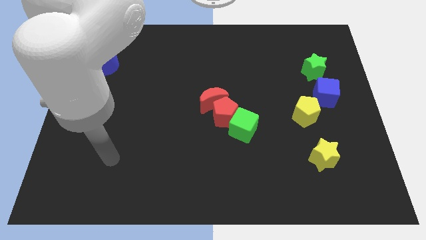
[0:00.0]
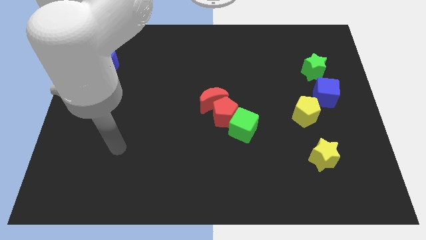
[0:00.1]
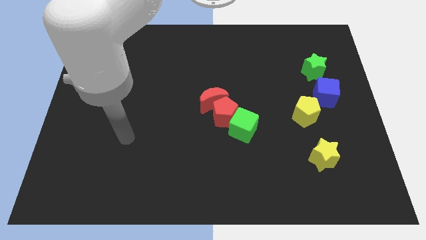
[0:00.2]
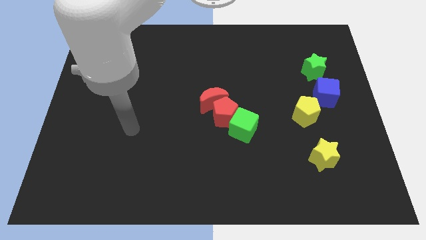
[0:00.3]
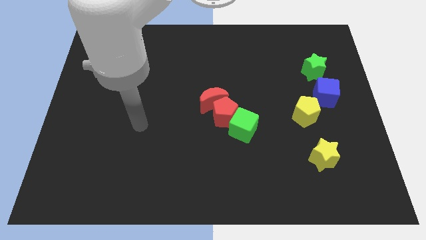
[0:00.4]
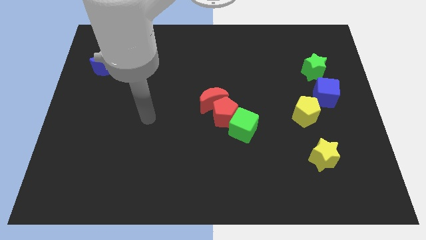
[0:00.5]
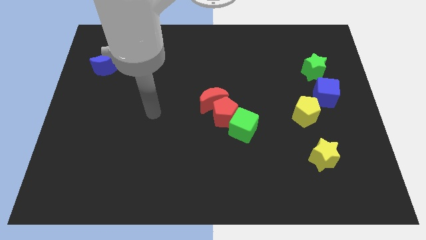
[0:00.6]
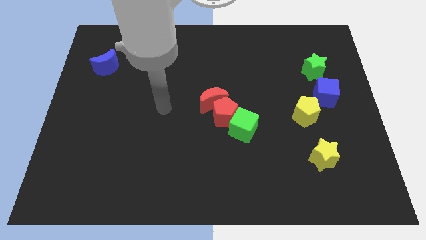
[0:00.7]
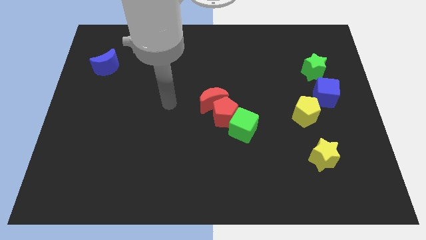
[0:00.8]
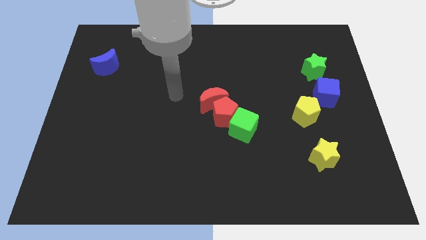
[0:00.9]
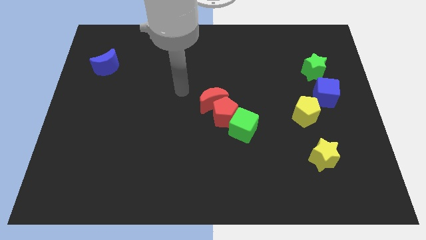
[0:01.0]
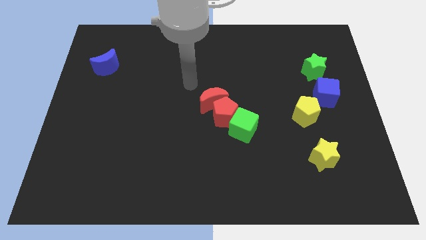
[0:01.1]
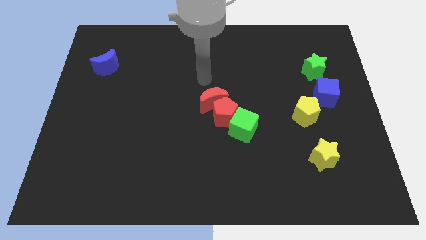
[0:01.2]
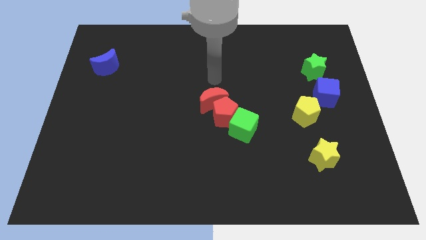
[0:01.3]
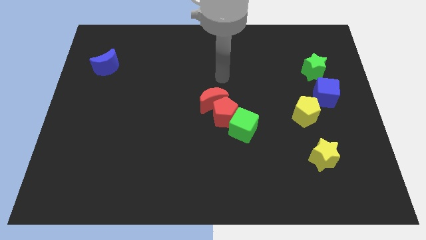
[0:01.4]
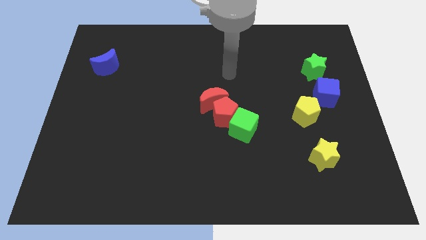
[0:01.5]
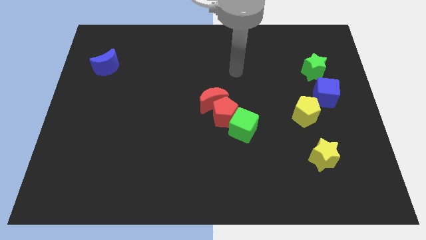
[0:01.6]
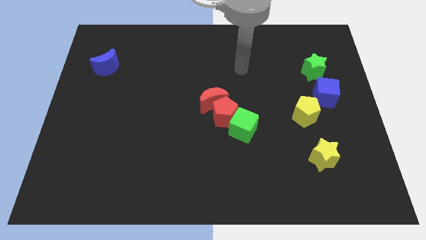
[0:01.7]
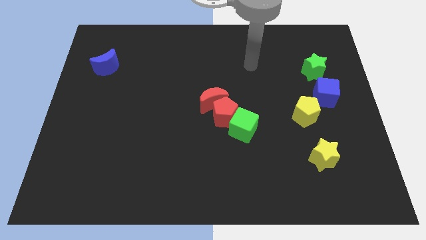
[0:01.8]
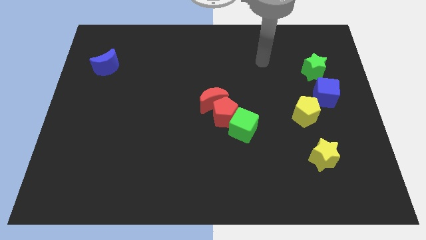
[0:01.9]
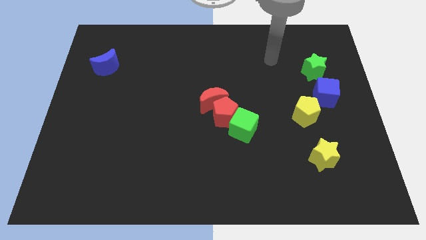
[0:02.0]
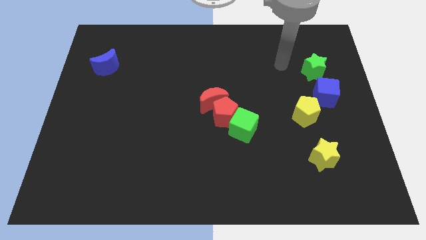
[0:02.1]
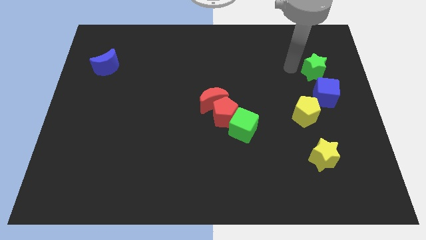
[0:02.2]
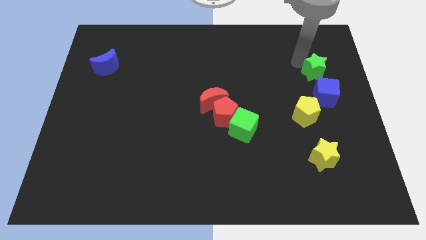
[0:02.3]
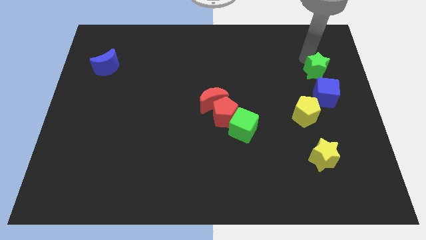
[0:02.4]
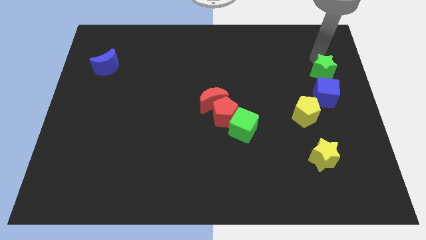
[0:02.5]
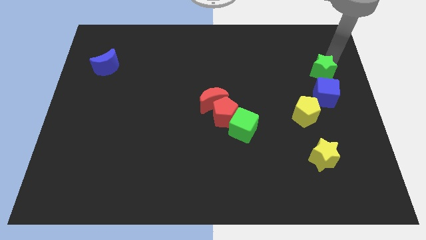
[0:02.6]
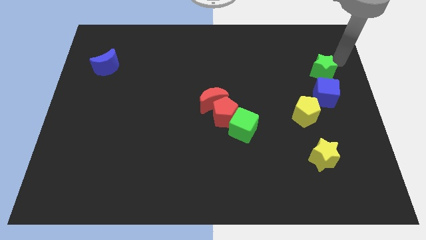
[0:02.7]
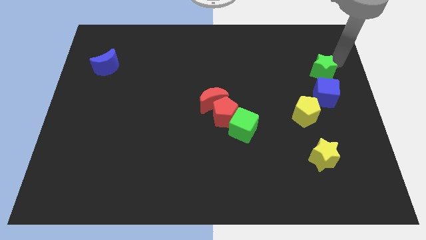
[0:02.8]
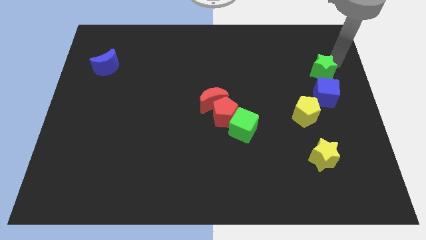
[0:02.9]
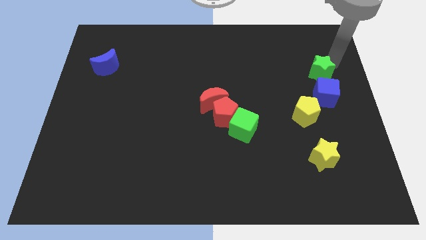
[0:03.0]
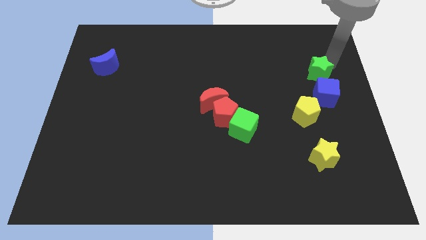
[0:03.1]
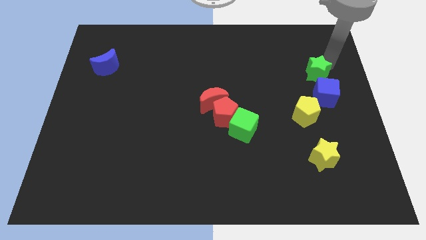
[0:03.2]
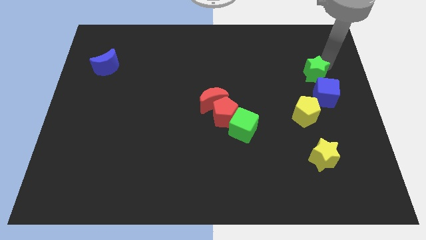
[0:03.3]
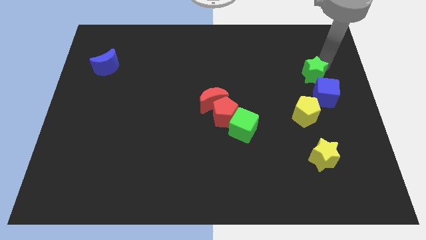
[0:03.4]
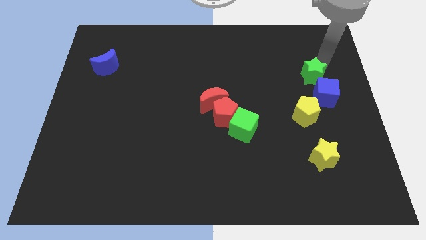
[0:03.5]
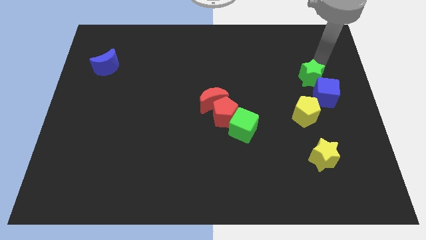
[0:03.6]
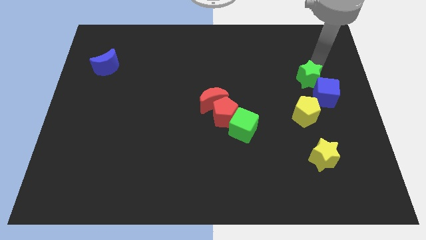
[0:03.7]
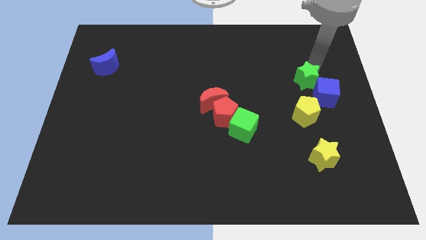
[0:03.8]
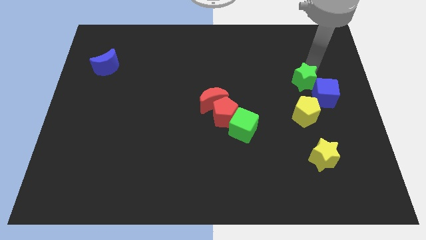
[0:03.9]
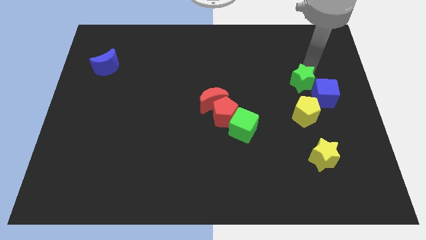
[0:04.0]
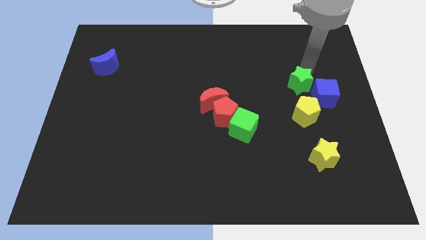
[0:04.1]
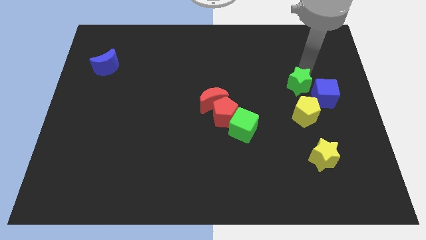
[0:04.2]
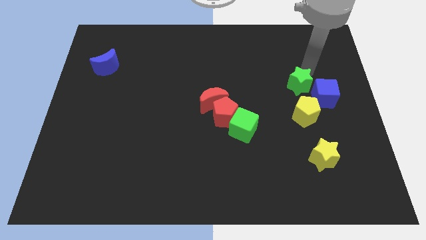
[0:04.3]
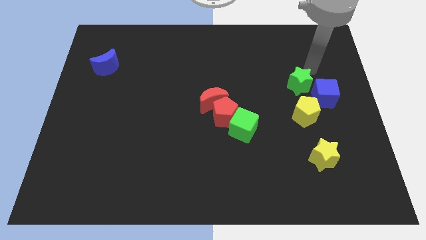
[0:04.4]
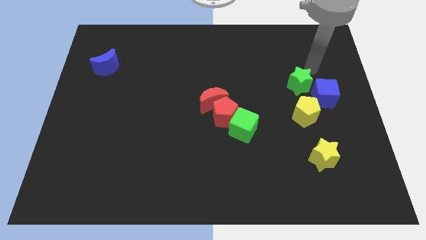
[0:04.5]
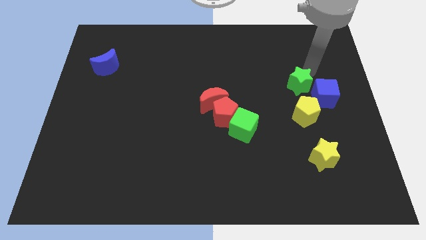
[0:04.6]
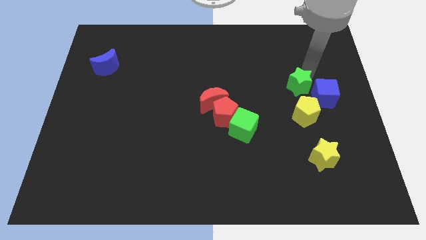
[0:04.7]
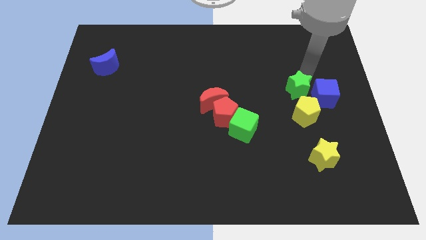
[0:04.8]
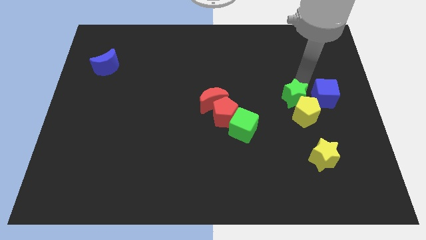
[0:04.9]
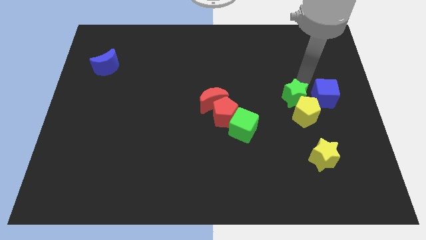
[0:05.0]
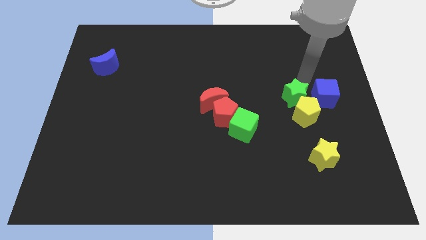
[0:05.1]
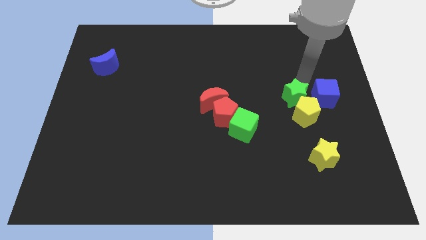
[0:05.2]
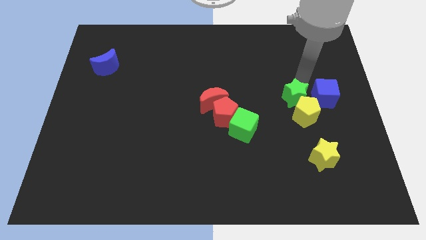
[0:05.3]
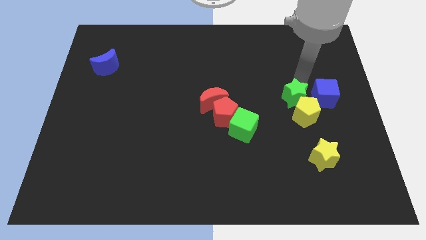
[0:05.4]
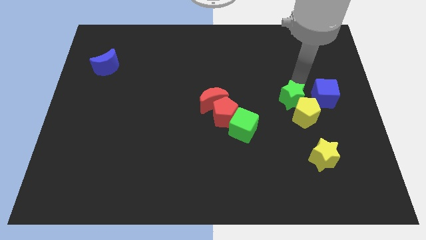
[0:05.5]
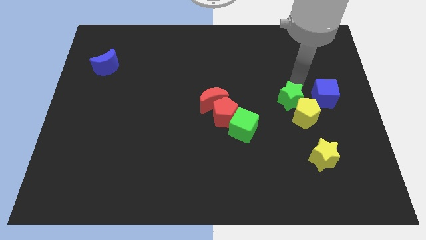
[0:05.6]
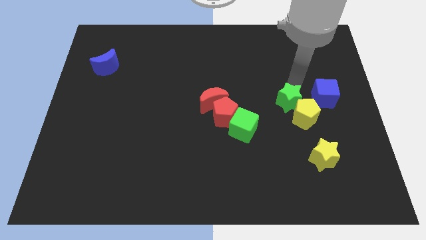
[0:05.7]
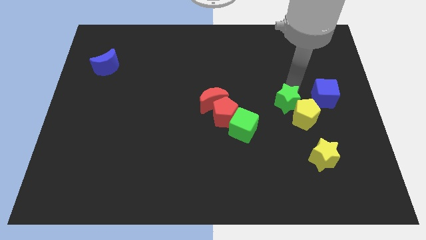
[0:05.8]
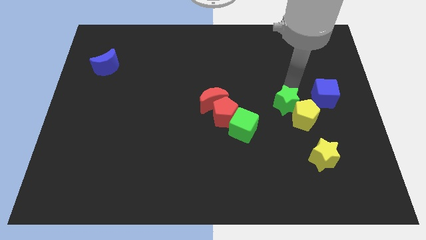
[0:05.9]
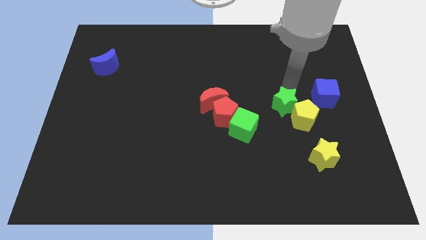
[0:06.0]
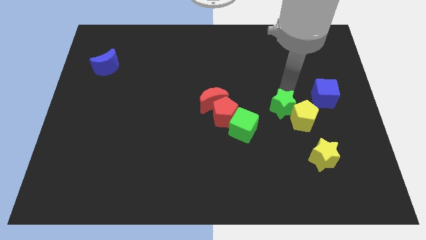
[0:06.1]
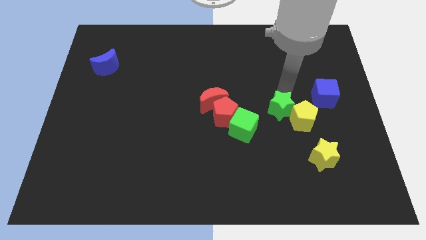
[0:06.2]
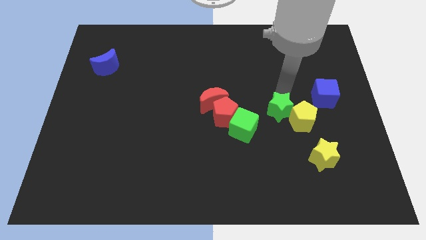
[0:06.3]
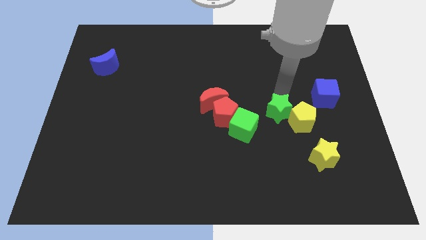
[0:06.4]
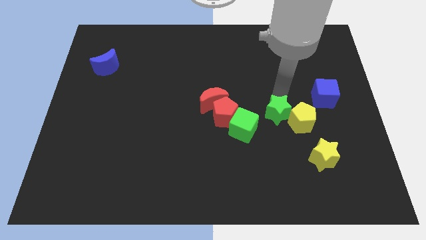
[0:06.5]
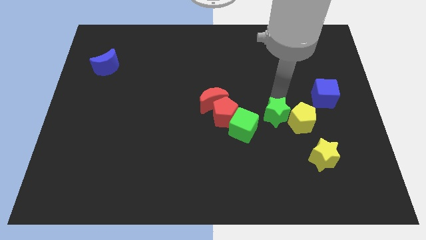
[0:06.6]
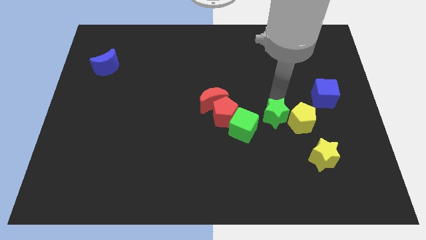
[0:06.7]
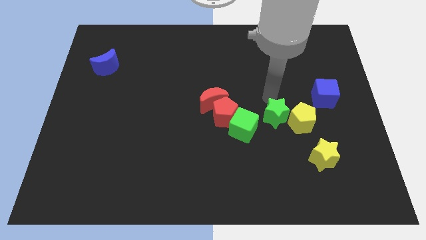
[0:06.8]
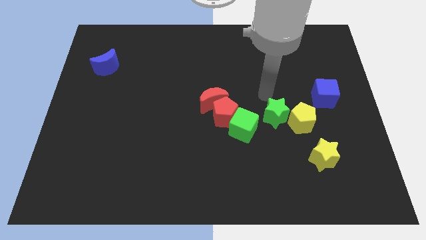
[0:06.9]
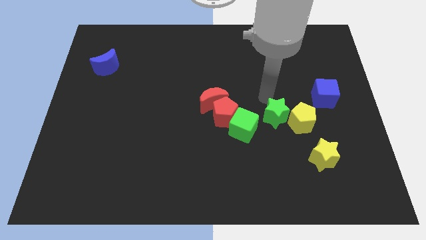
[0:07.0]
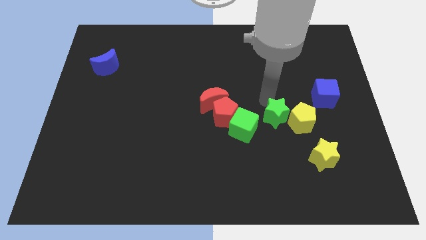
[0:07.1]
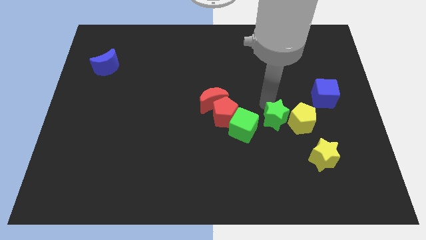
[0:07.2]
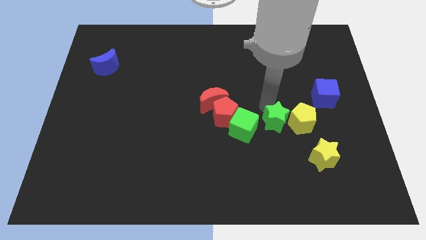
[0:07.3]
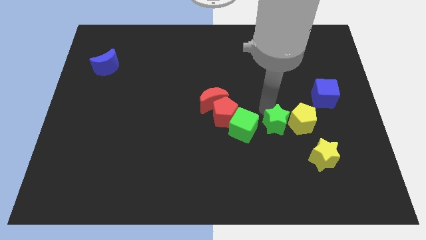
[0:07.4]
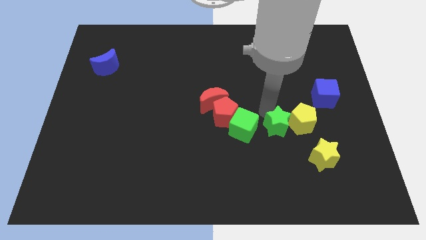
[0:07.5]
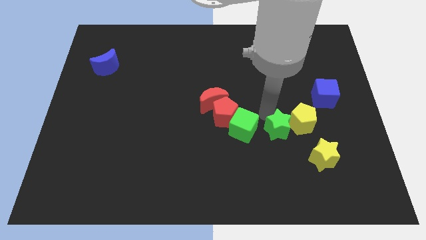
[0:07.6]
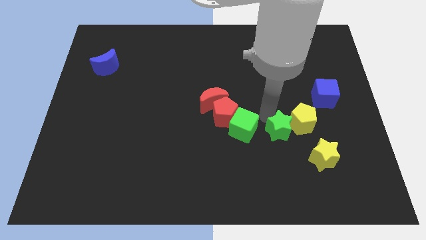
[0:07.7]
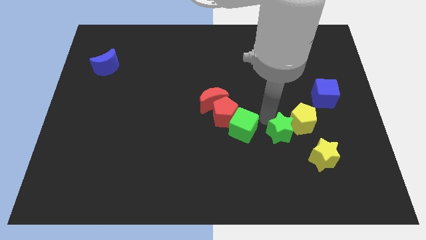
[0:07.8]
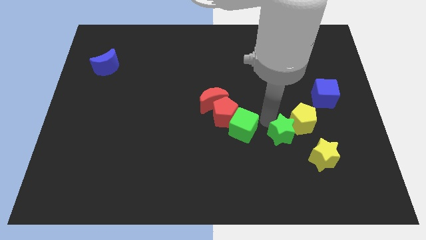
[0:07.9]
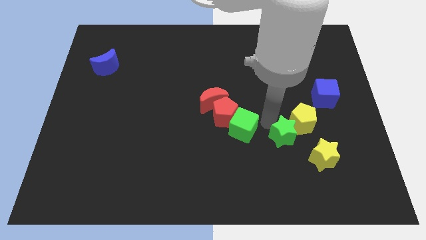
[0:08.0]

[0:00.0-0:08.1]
move the green star to the bottom of the yellow pentagon
